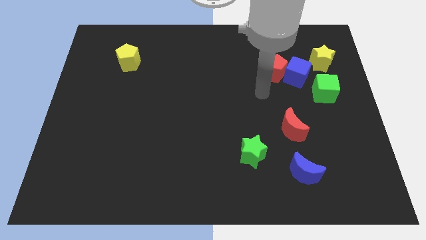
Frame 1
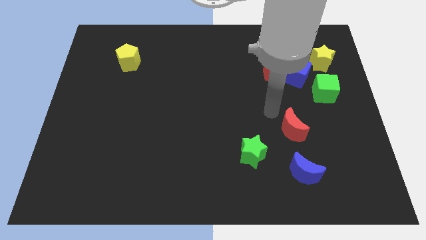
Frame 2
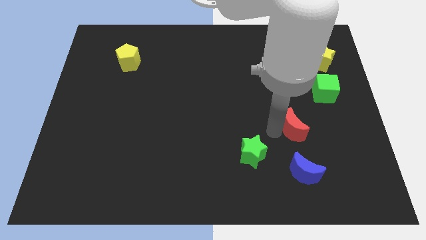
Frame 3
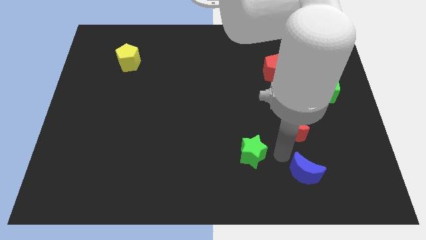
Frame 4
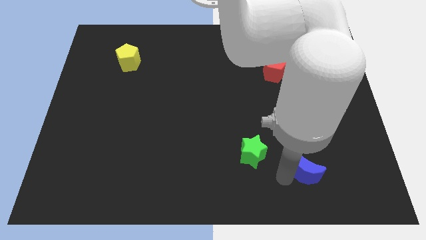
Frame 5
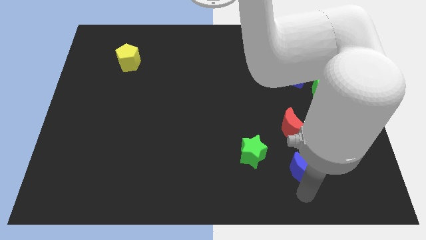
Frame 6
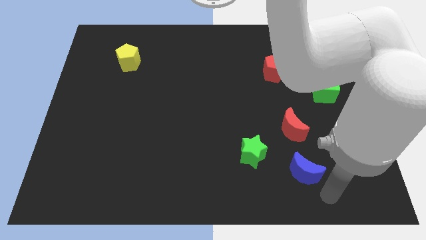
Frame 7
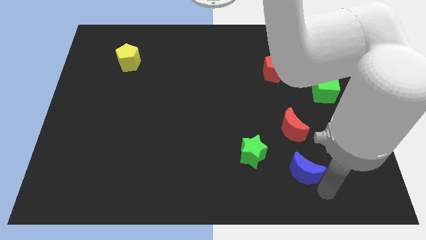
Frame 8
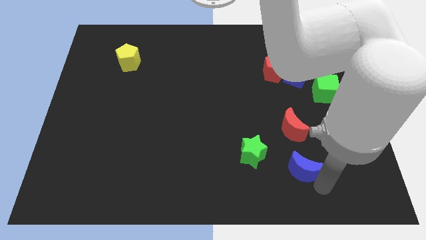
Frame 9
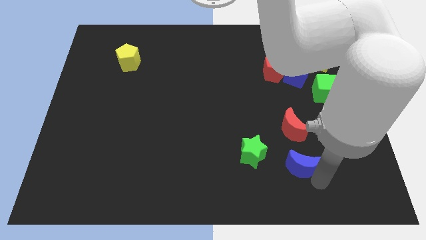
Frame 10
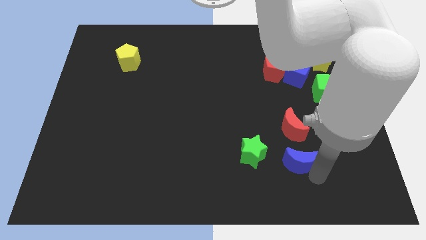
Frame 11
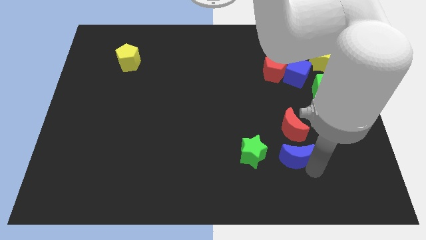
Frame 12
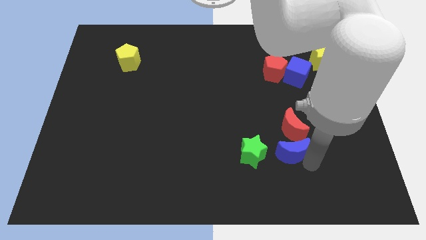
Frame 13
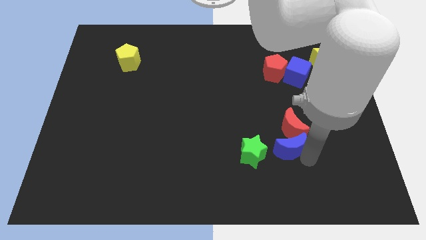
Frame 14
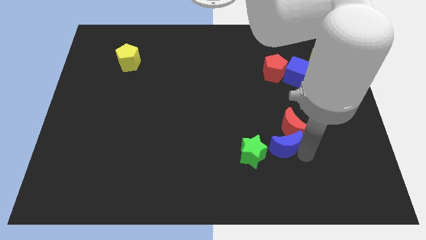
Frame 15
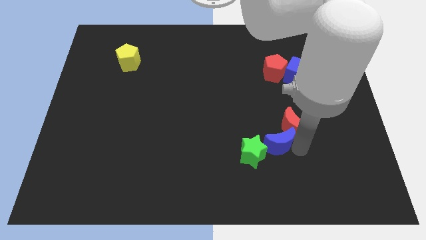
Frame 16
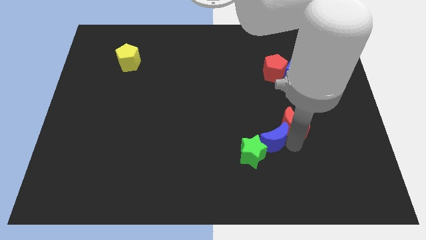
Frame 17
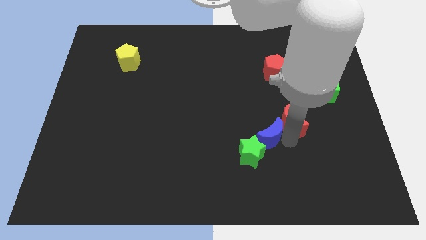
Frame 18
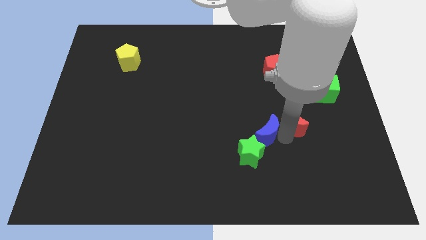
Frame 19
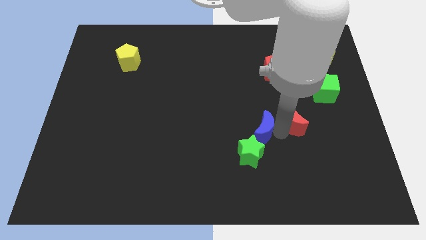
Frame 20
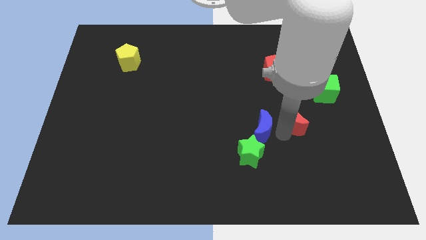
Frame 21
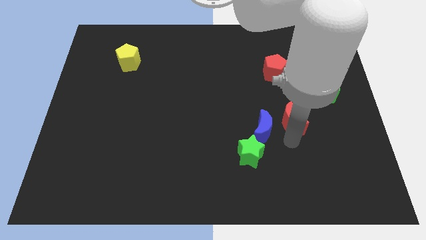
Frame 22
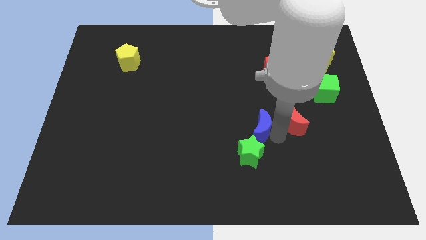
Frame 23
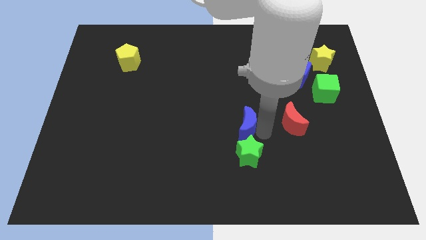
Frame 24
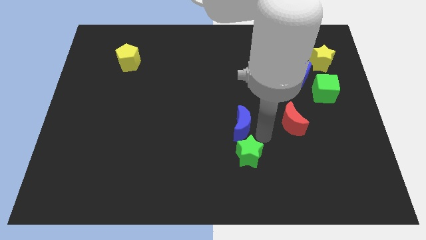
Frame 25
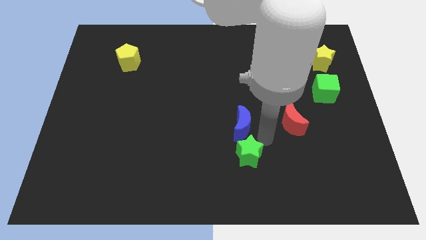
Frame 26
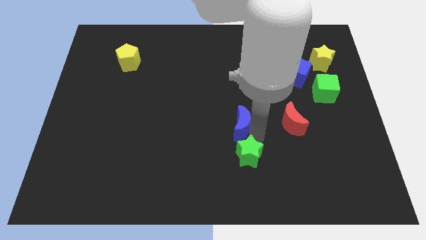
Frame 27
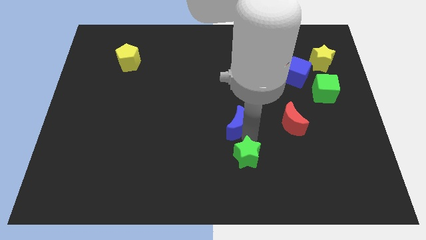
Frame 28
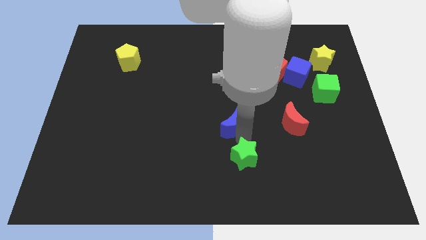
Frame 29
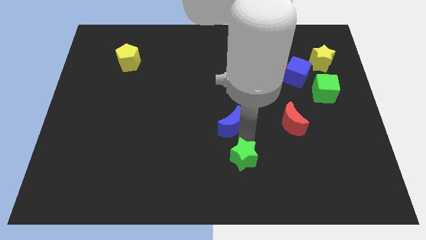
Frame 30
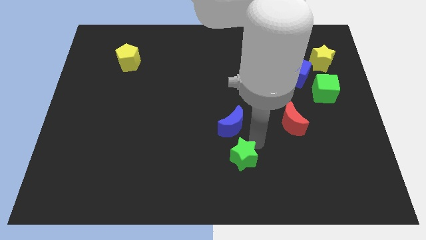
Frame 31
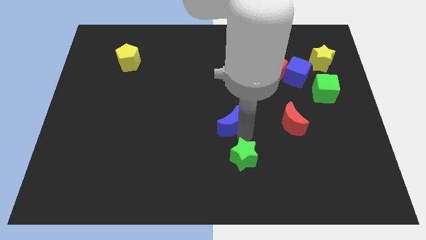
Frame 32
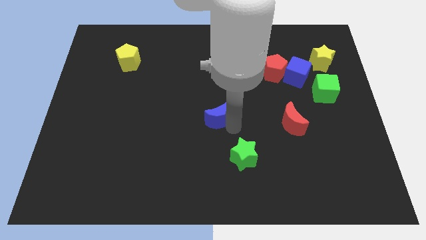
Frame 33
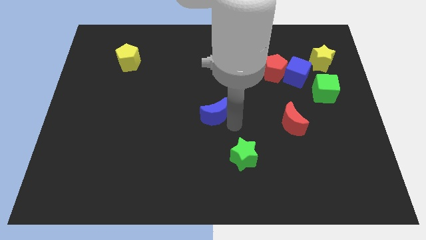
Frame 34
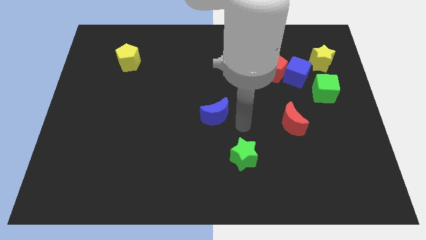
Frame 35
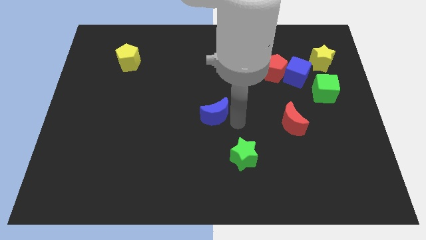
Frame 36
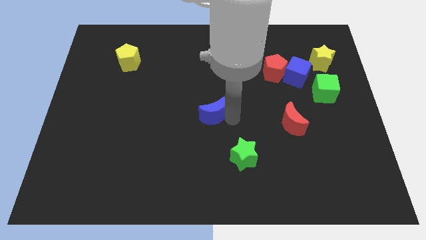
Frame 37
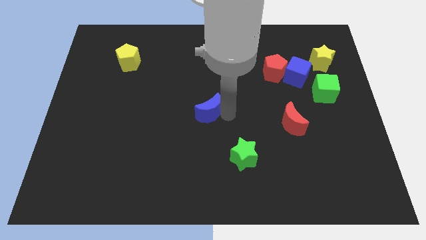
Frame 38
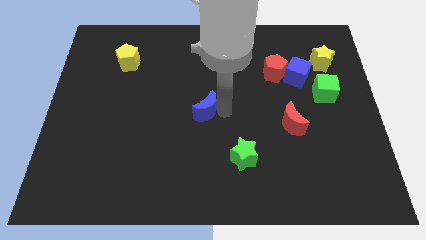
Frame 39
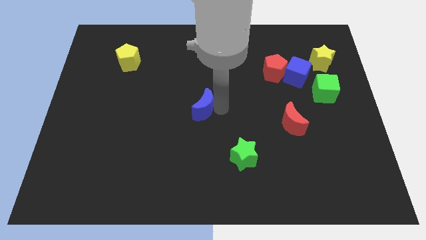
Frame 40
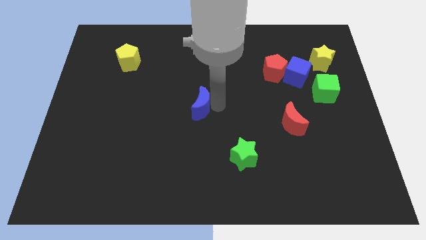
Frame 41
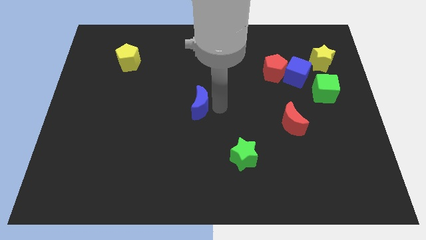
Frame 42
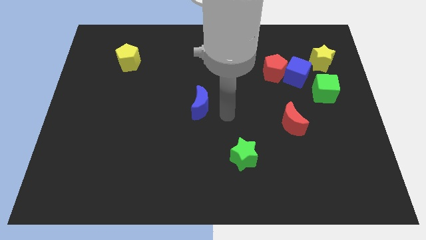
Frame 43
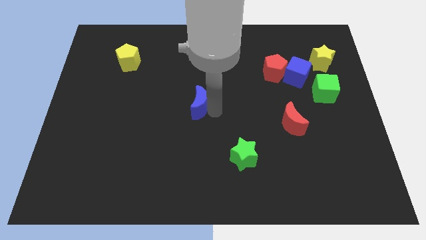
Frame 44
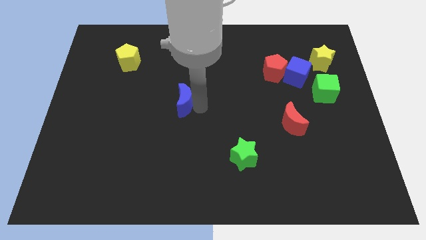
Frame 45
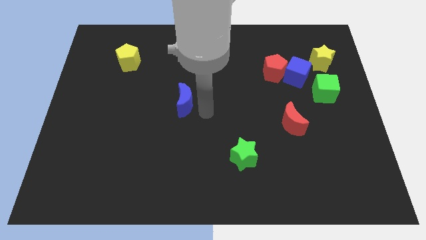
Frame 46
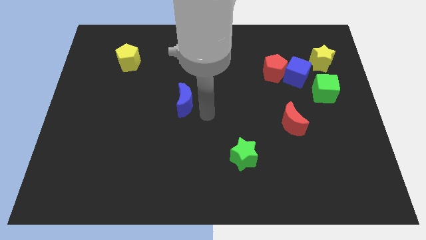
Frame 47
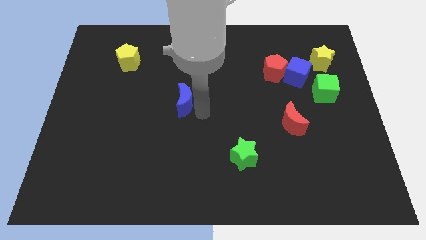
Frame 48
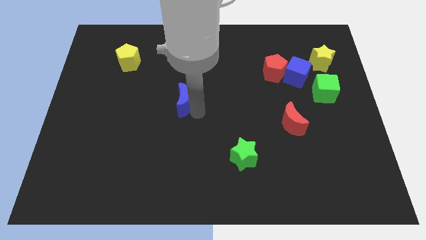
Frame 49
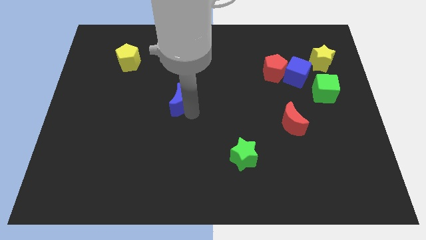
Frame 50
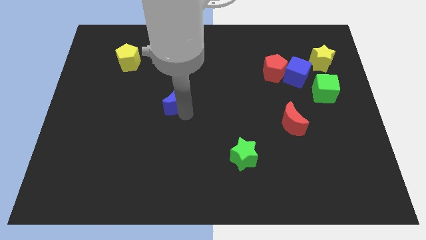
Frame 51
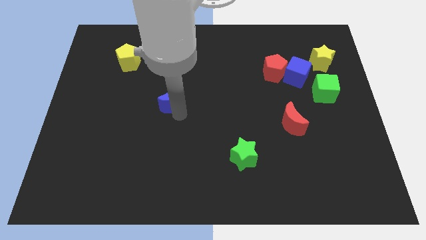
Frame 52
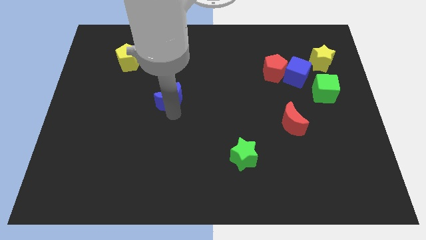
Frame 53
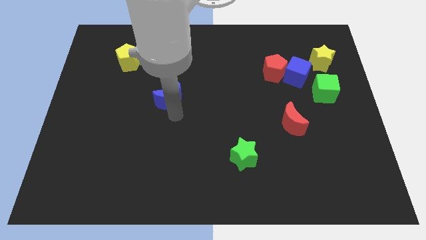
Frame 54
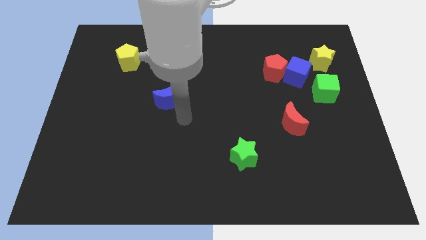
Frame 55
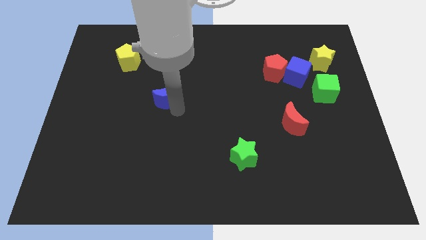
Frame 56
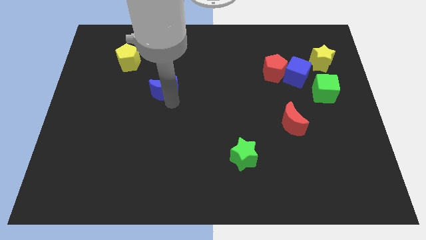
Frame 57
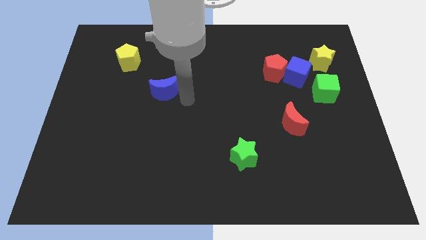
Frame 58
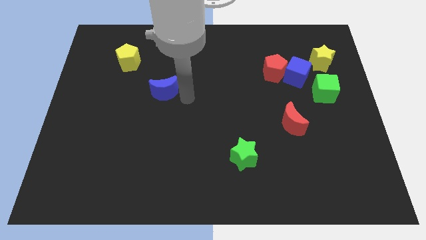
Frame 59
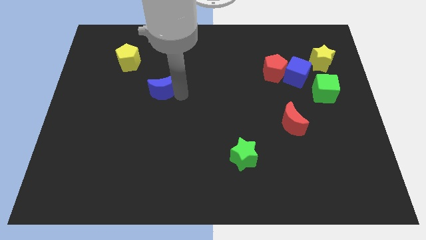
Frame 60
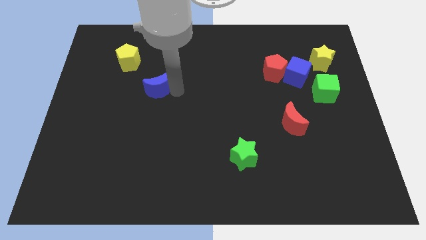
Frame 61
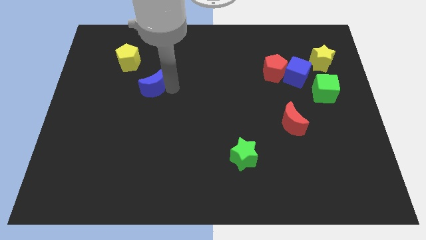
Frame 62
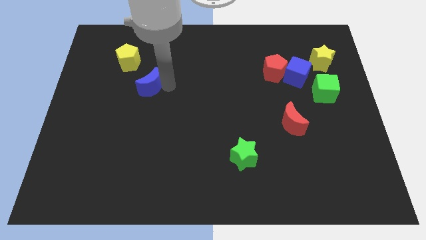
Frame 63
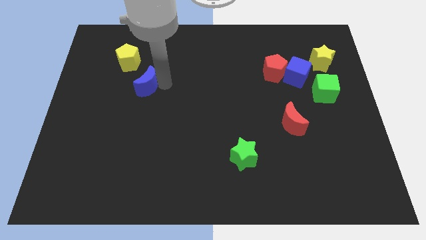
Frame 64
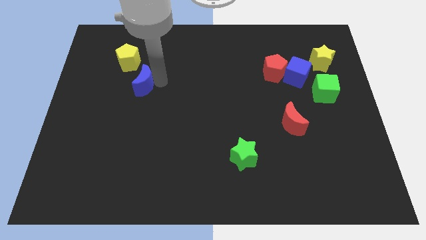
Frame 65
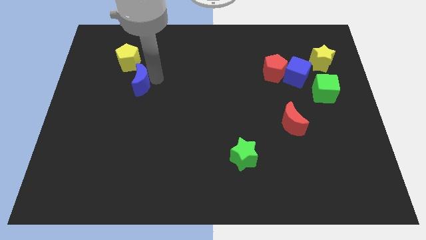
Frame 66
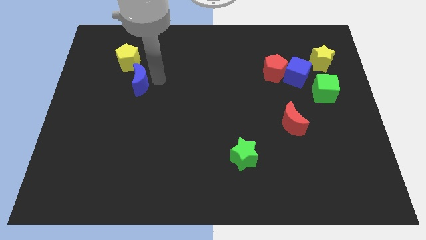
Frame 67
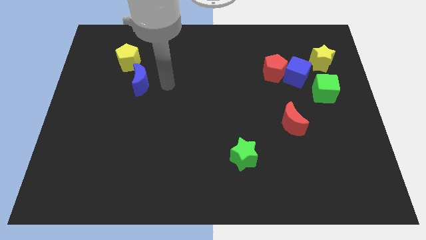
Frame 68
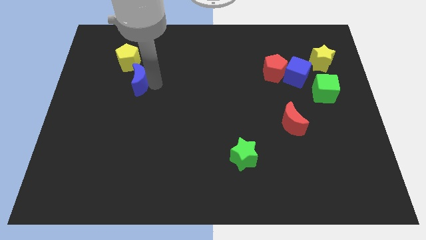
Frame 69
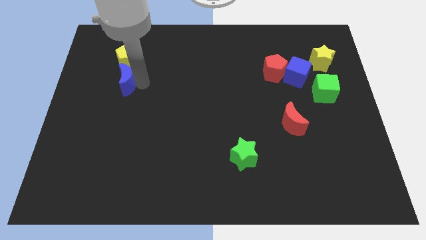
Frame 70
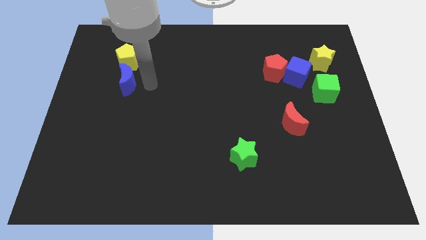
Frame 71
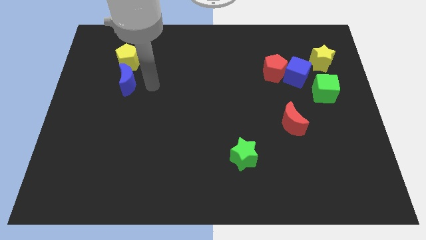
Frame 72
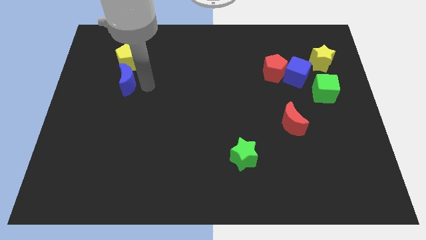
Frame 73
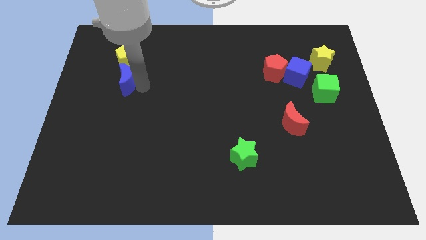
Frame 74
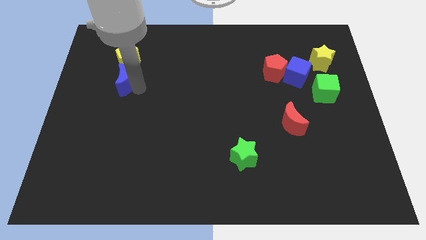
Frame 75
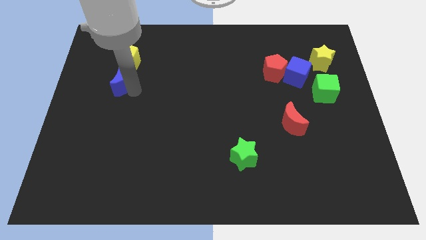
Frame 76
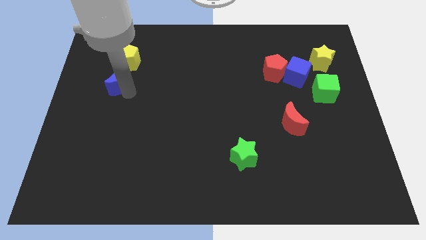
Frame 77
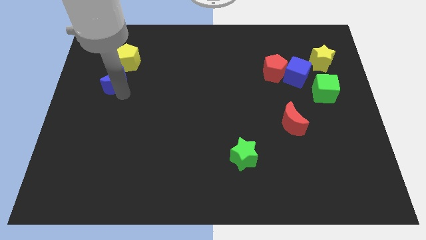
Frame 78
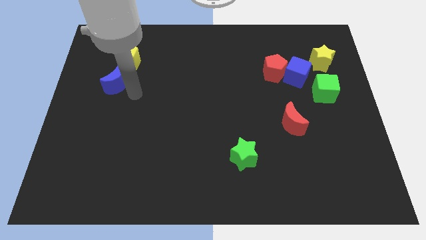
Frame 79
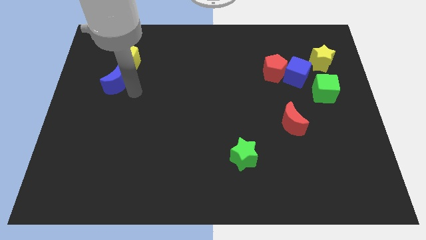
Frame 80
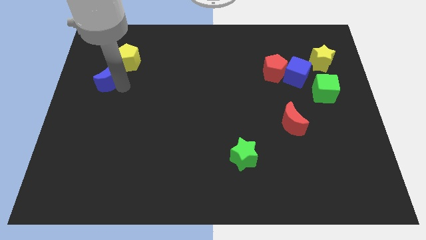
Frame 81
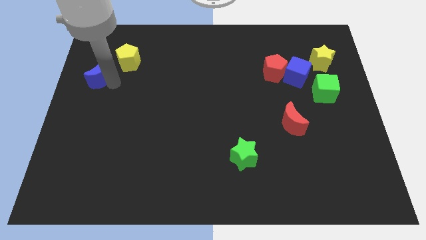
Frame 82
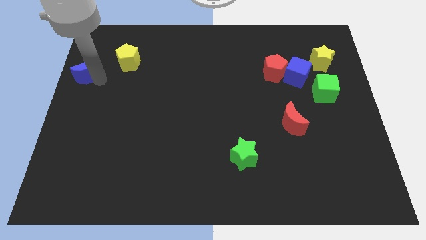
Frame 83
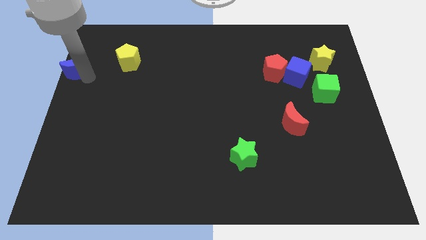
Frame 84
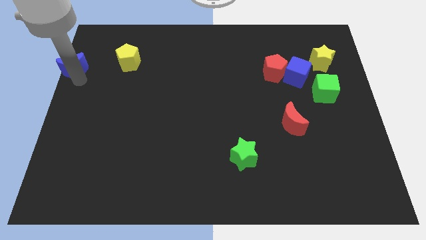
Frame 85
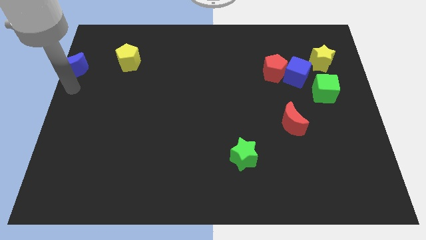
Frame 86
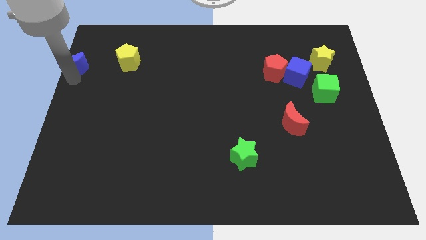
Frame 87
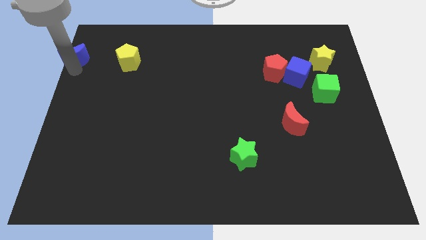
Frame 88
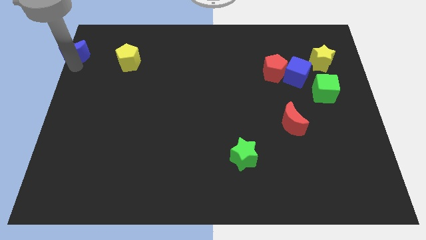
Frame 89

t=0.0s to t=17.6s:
slide the blue moon to the top left of the board
